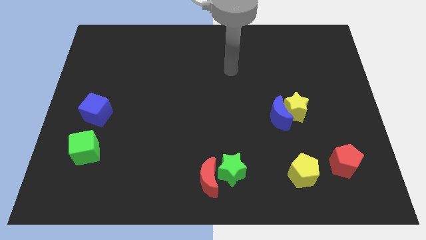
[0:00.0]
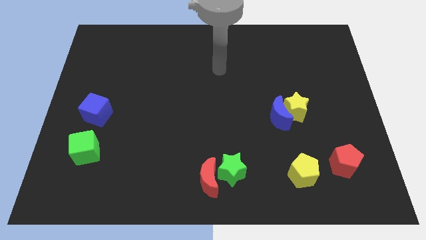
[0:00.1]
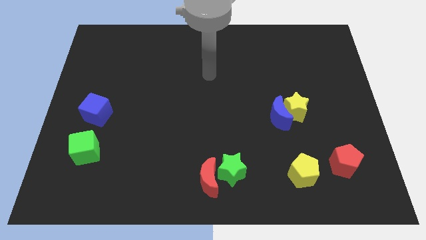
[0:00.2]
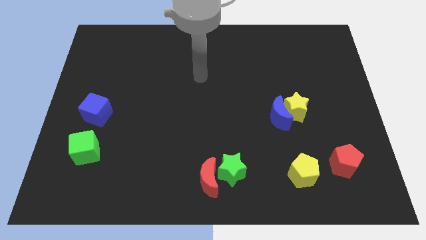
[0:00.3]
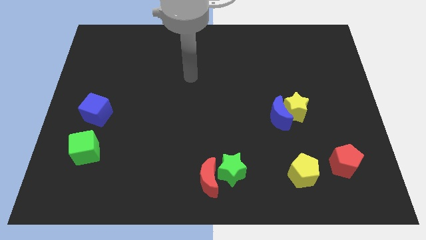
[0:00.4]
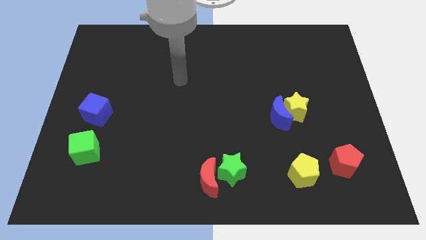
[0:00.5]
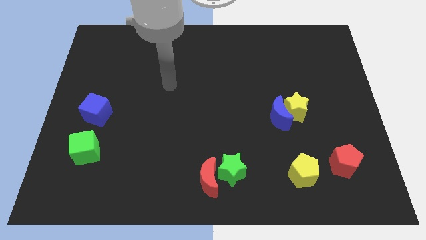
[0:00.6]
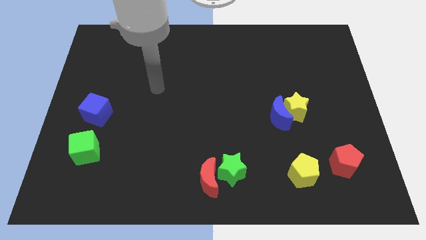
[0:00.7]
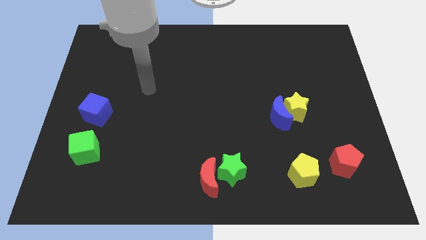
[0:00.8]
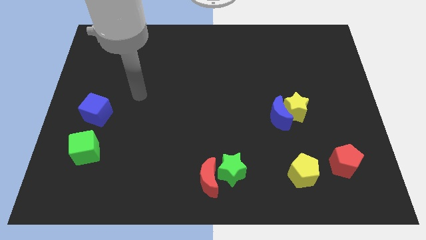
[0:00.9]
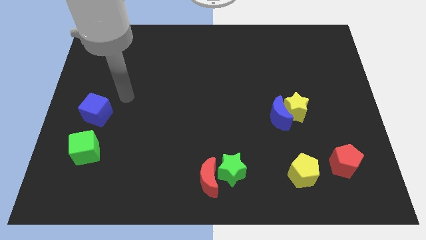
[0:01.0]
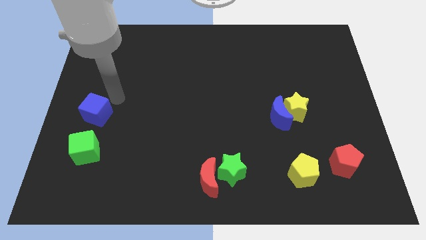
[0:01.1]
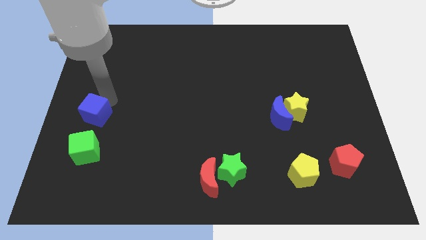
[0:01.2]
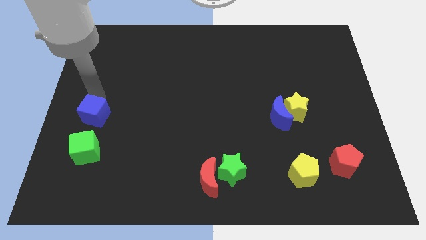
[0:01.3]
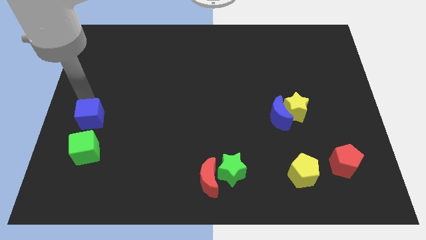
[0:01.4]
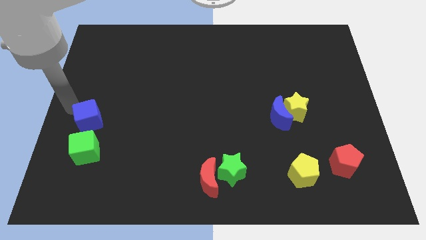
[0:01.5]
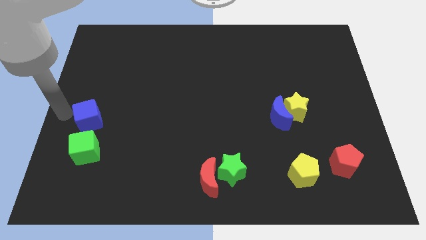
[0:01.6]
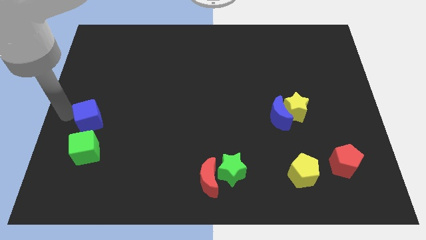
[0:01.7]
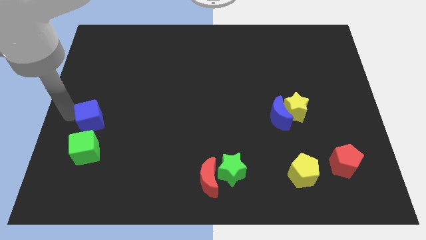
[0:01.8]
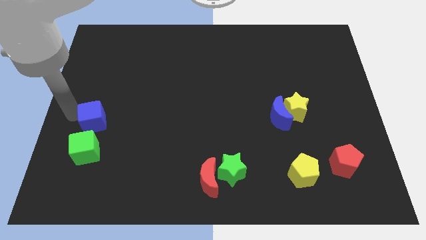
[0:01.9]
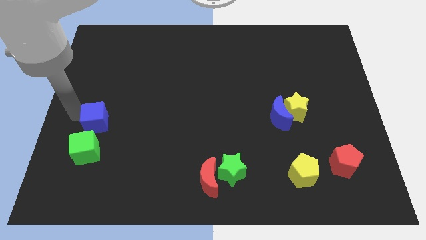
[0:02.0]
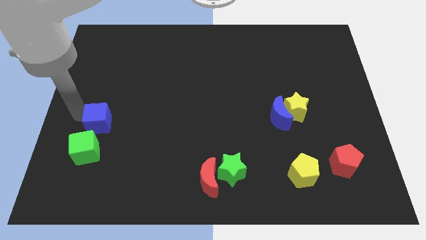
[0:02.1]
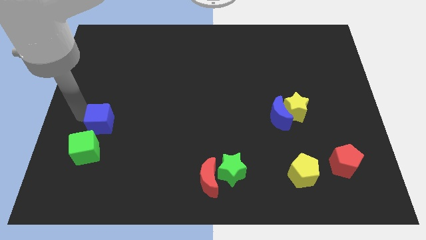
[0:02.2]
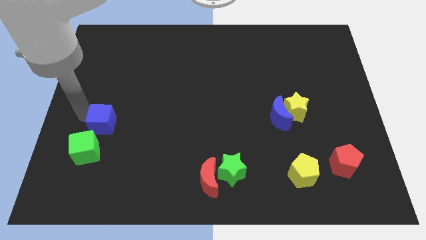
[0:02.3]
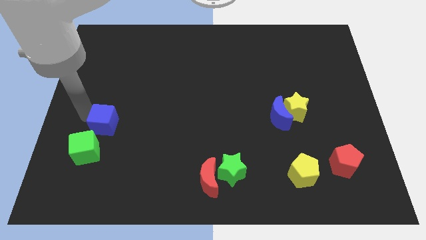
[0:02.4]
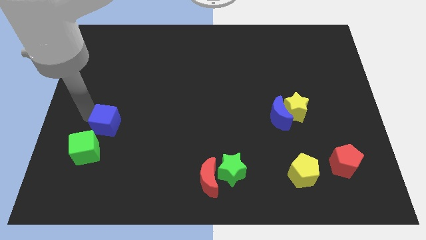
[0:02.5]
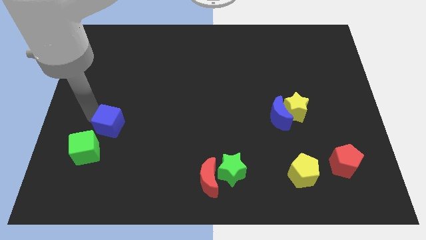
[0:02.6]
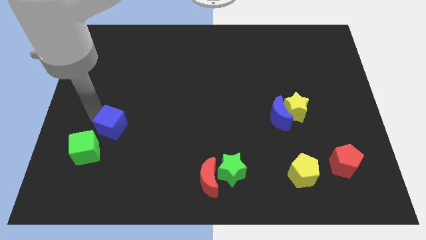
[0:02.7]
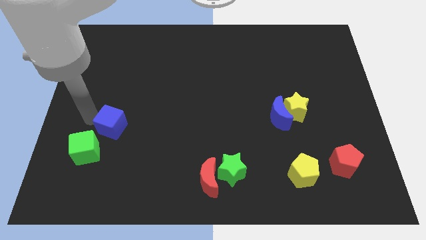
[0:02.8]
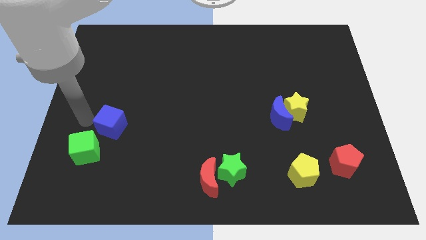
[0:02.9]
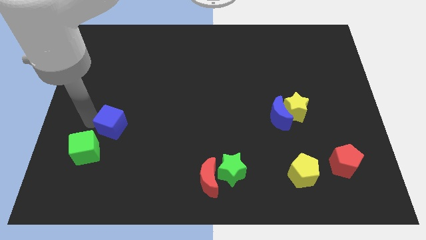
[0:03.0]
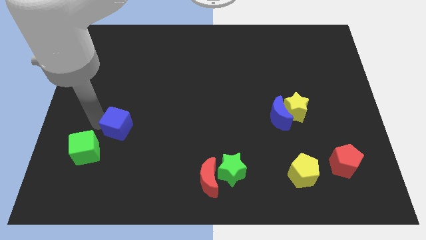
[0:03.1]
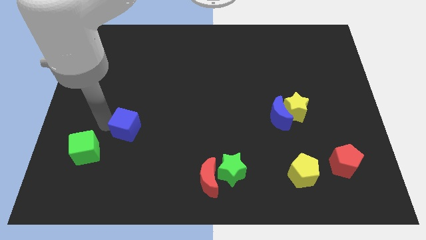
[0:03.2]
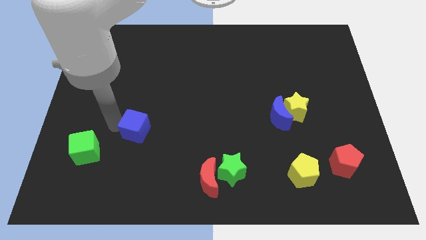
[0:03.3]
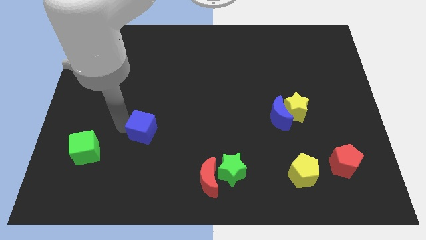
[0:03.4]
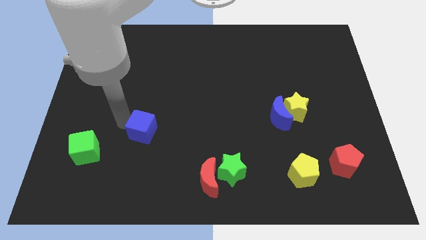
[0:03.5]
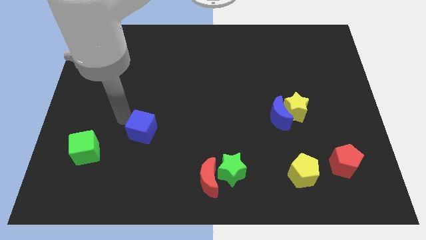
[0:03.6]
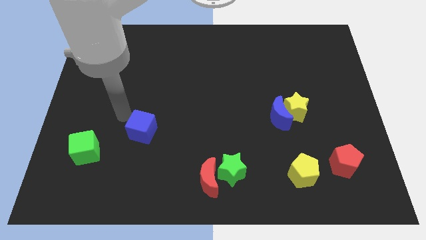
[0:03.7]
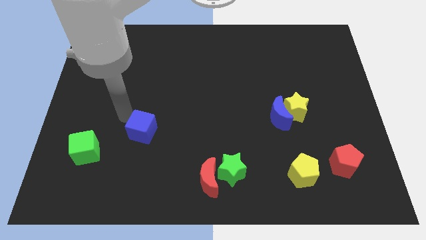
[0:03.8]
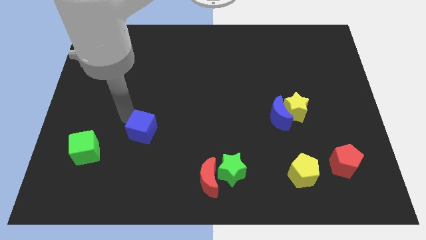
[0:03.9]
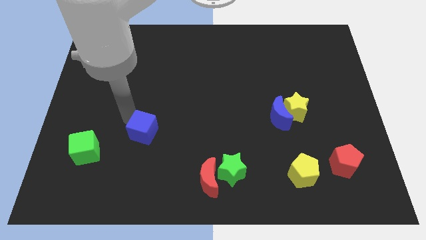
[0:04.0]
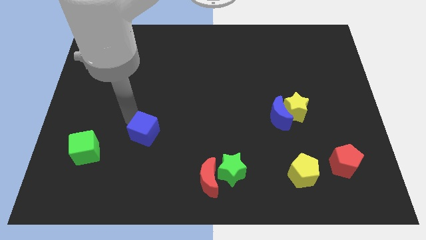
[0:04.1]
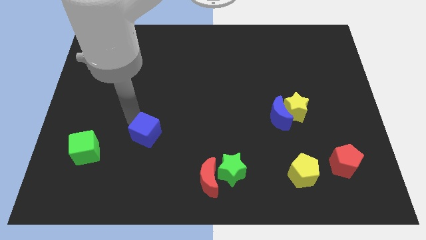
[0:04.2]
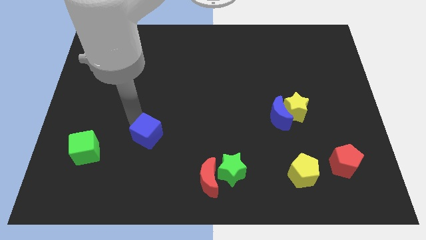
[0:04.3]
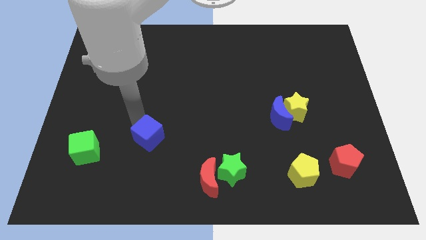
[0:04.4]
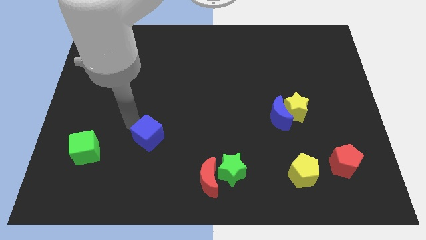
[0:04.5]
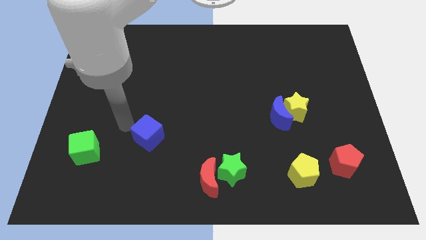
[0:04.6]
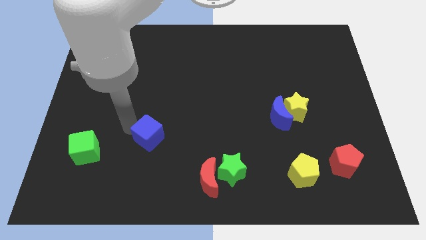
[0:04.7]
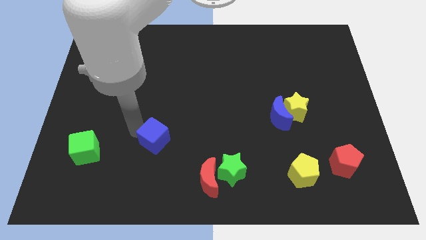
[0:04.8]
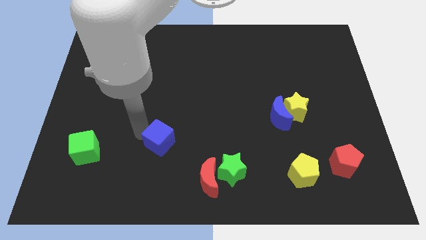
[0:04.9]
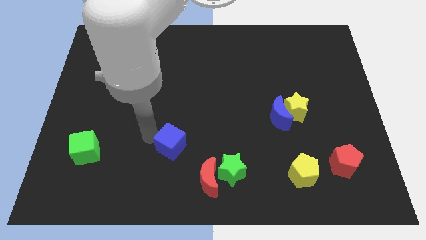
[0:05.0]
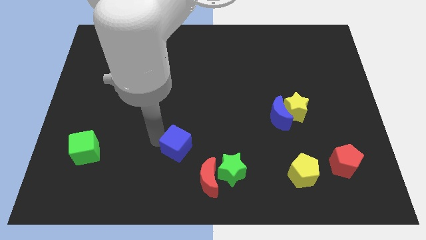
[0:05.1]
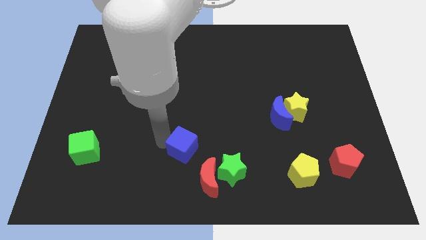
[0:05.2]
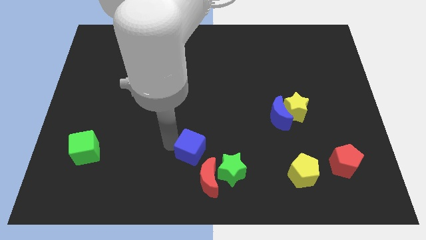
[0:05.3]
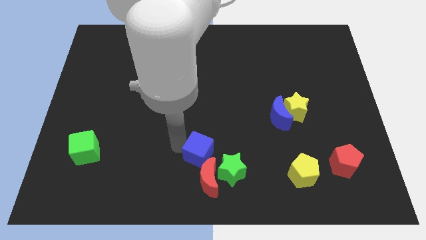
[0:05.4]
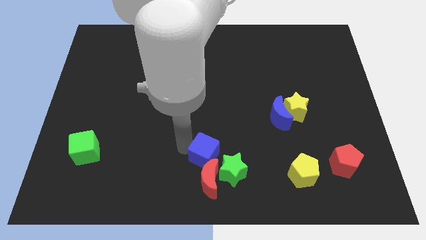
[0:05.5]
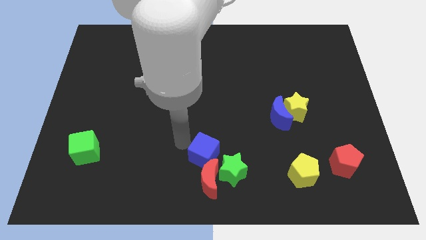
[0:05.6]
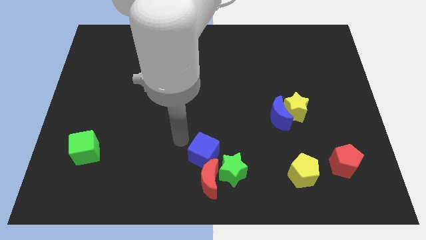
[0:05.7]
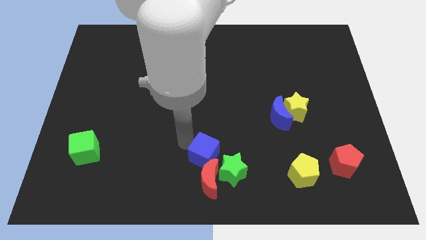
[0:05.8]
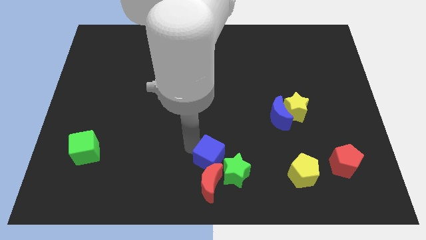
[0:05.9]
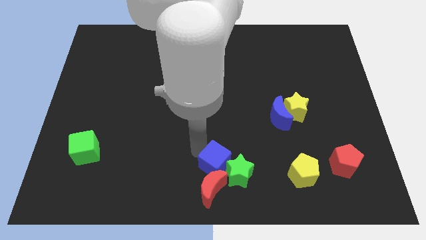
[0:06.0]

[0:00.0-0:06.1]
push the blue cube close to the green star

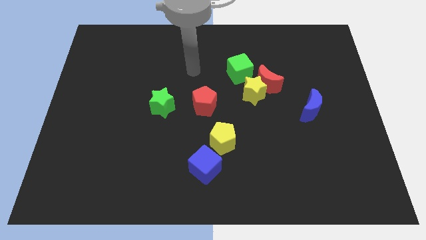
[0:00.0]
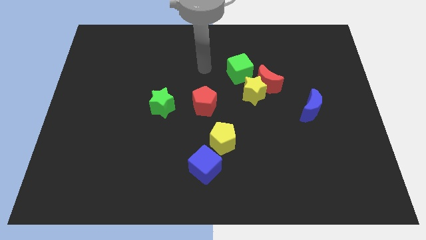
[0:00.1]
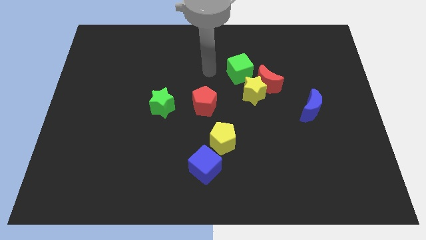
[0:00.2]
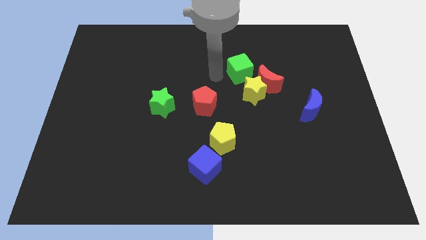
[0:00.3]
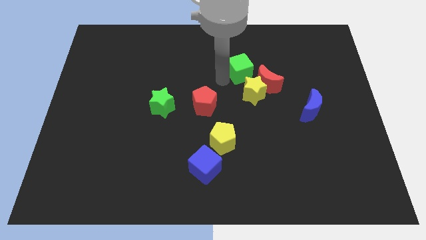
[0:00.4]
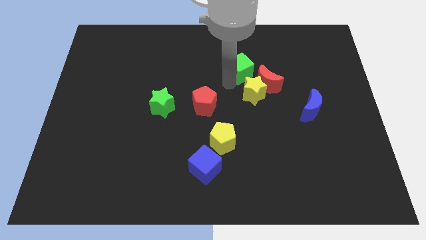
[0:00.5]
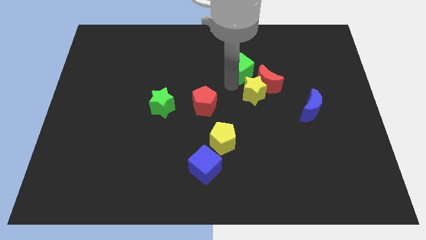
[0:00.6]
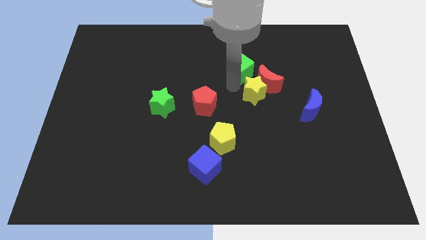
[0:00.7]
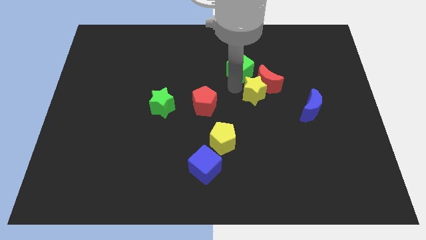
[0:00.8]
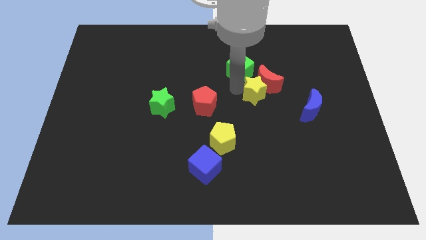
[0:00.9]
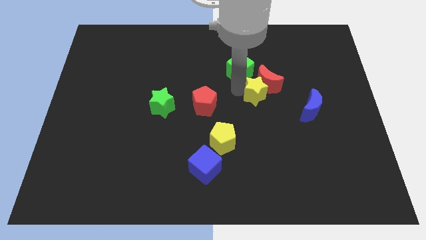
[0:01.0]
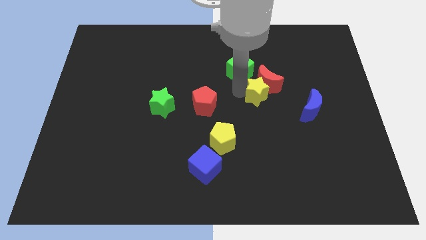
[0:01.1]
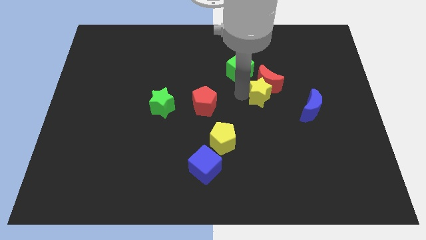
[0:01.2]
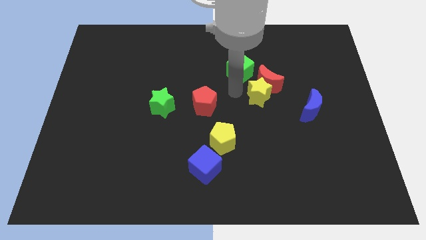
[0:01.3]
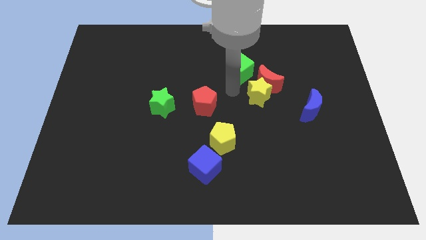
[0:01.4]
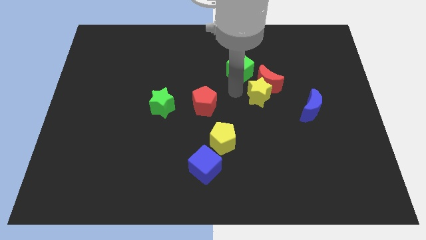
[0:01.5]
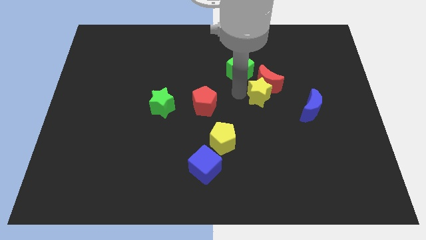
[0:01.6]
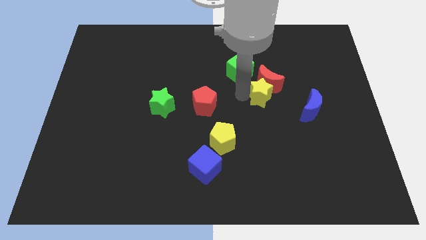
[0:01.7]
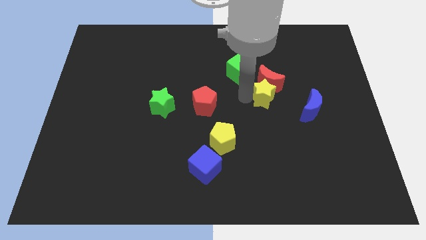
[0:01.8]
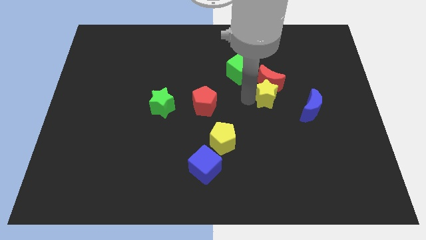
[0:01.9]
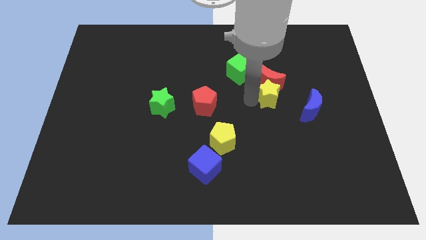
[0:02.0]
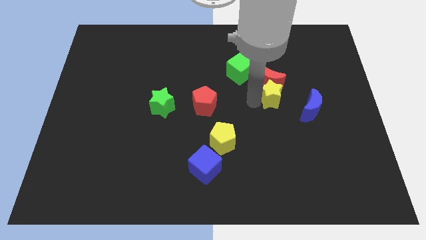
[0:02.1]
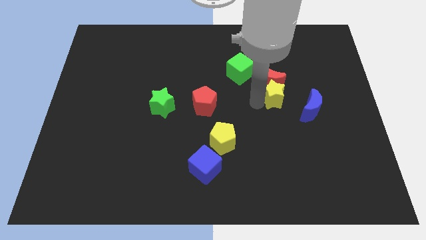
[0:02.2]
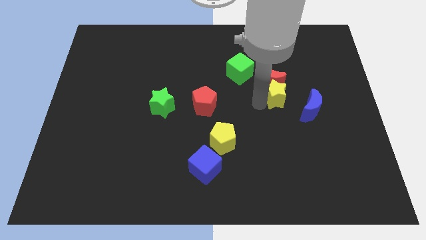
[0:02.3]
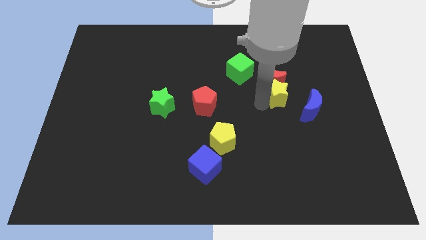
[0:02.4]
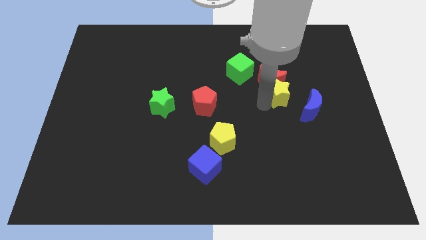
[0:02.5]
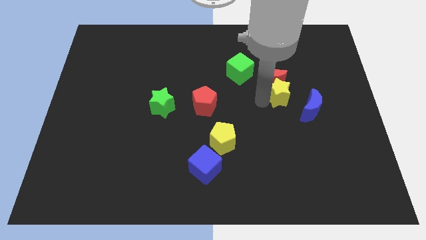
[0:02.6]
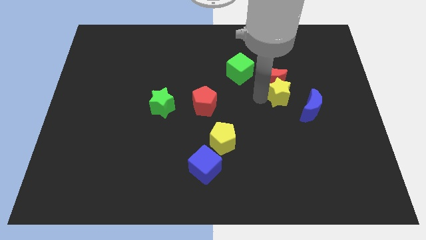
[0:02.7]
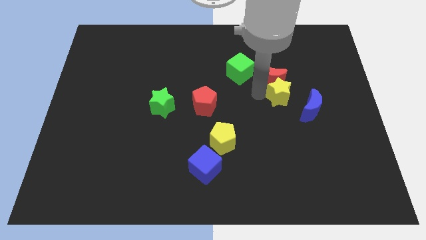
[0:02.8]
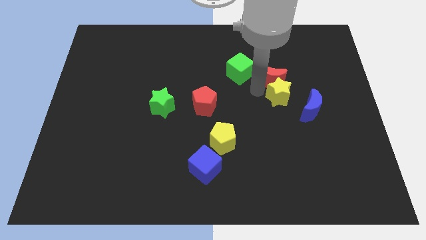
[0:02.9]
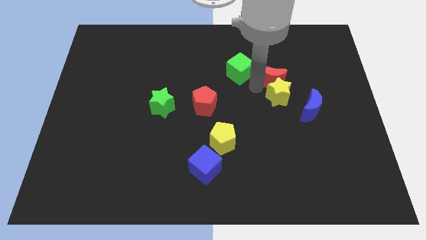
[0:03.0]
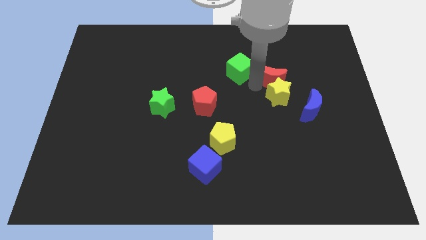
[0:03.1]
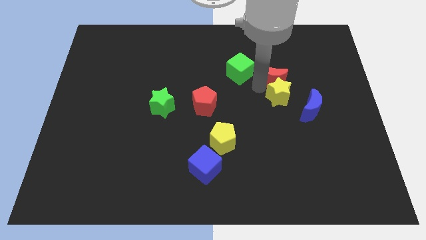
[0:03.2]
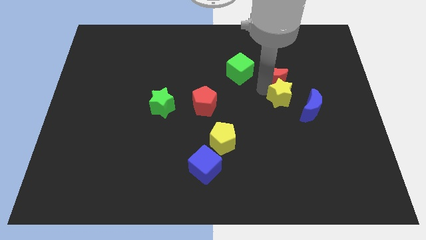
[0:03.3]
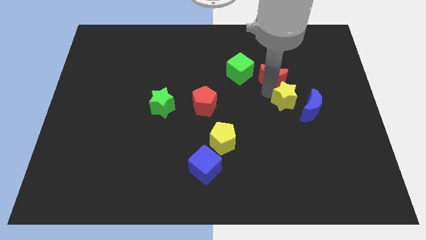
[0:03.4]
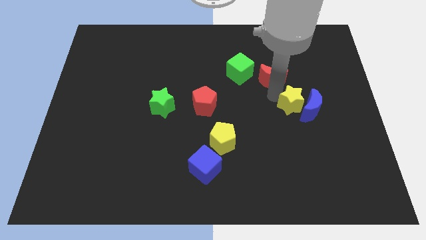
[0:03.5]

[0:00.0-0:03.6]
push the yellow star to the blue moon
